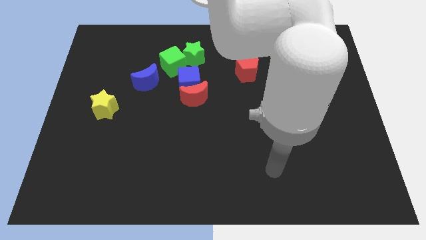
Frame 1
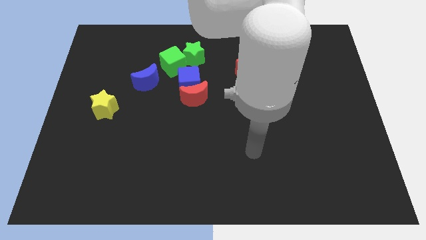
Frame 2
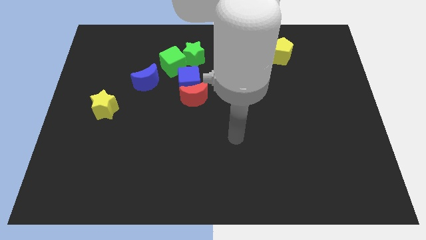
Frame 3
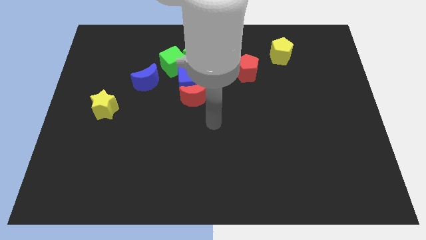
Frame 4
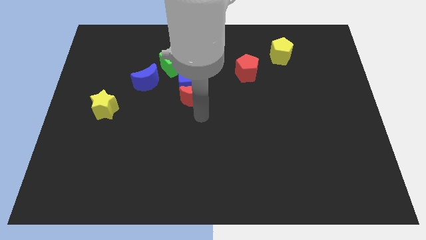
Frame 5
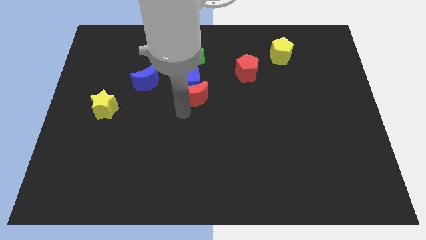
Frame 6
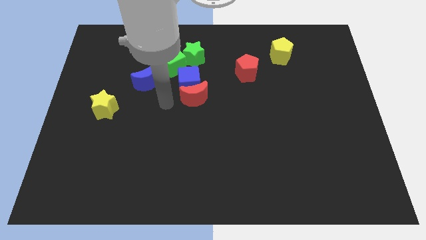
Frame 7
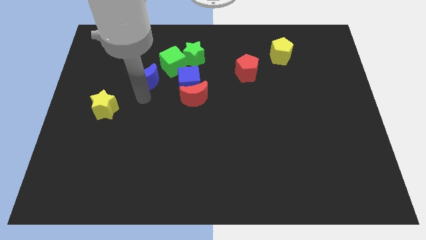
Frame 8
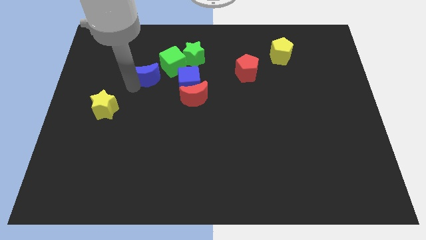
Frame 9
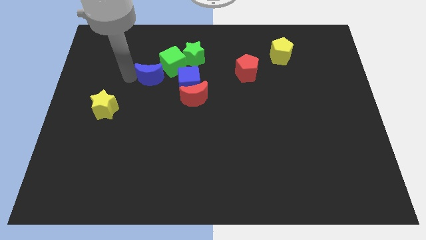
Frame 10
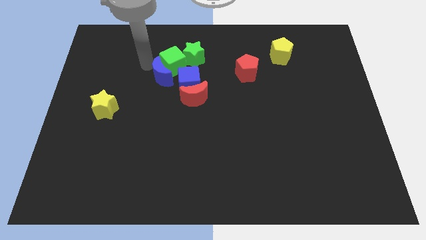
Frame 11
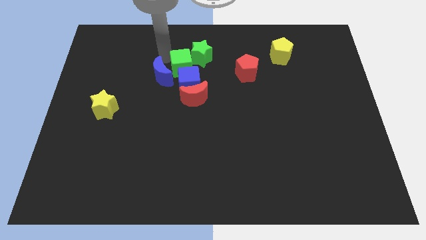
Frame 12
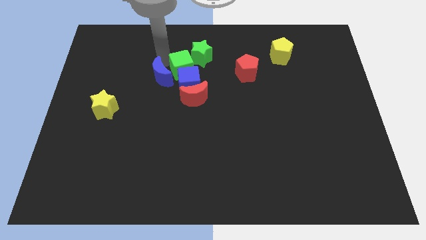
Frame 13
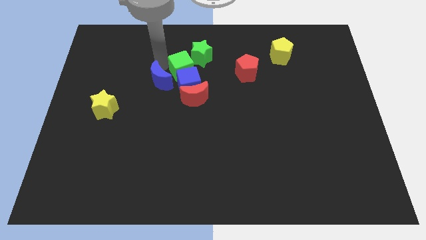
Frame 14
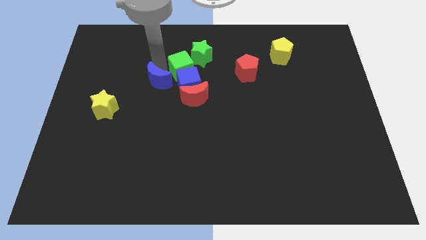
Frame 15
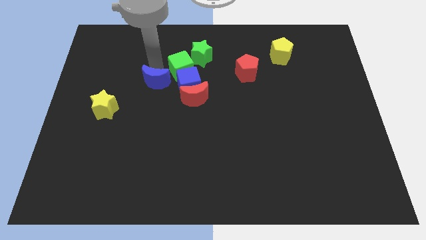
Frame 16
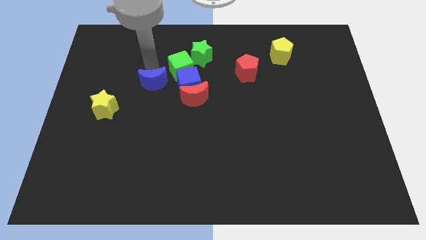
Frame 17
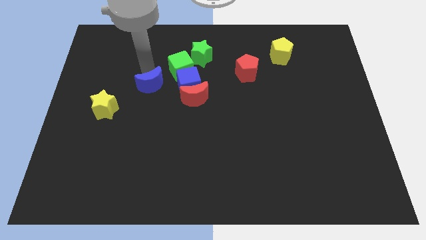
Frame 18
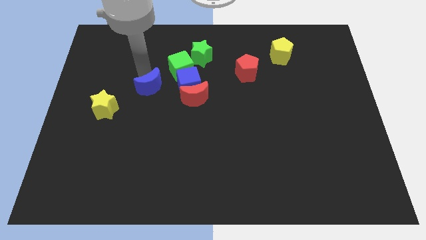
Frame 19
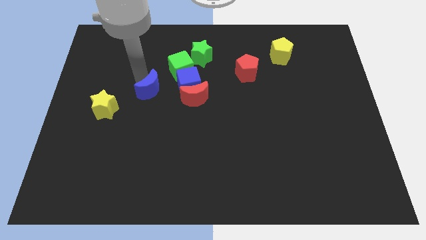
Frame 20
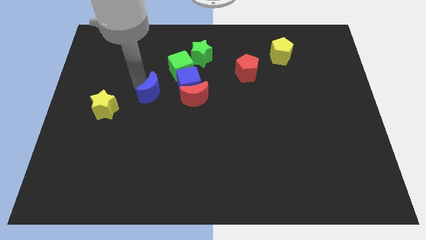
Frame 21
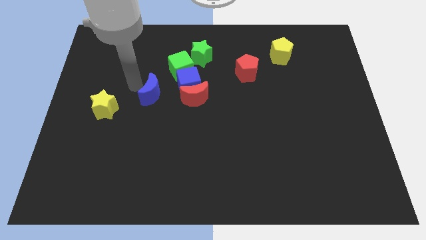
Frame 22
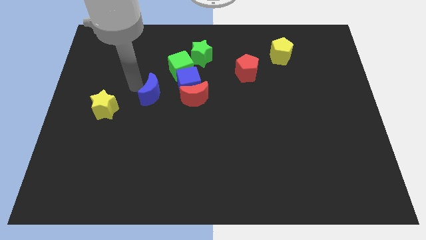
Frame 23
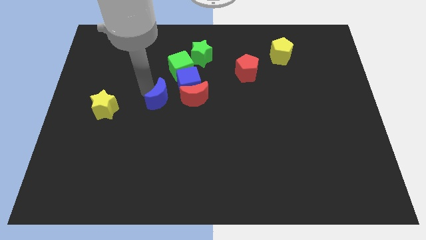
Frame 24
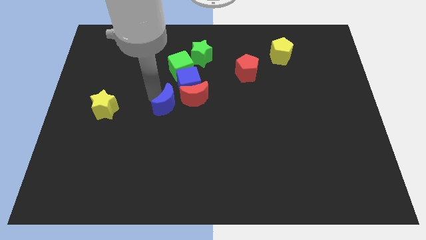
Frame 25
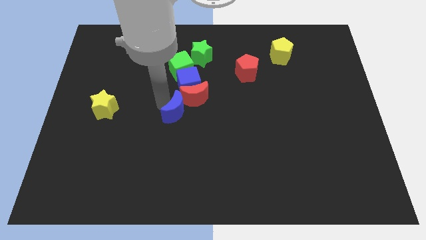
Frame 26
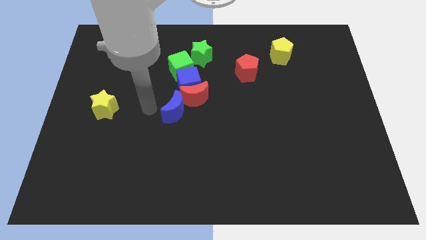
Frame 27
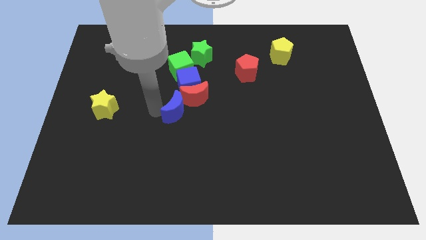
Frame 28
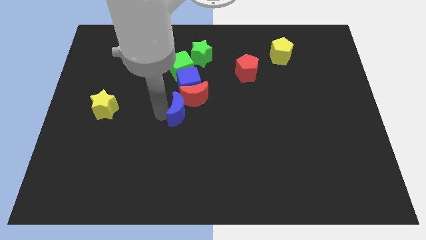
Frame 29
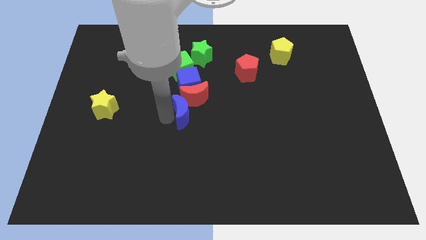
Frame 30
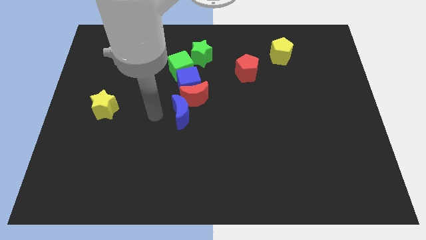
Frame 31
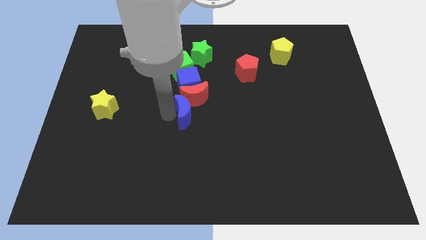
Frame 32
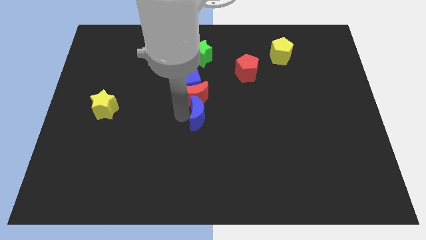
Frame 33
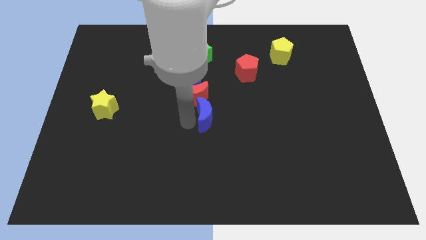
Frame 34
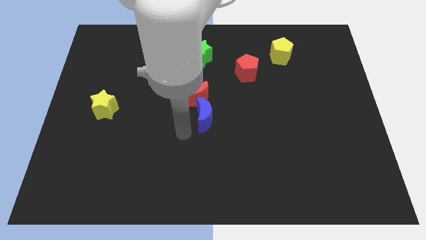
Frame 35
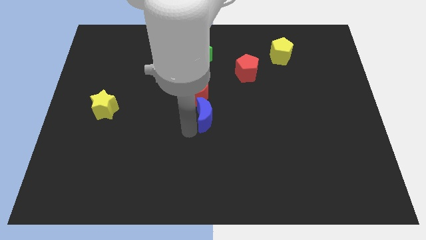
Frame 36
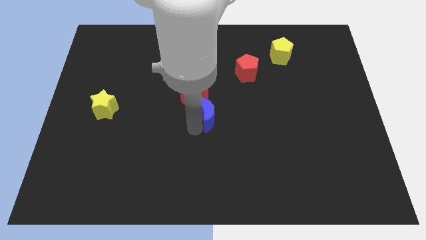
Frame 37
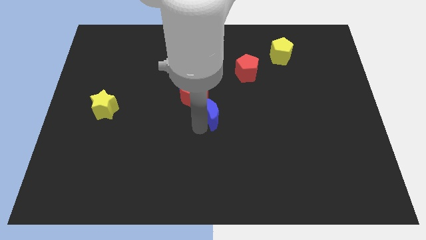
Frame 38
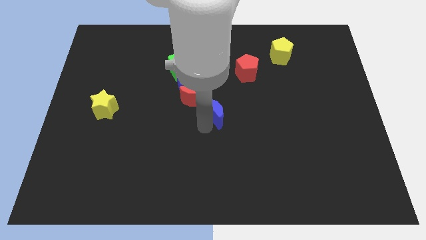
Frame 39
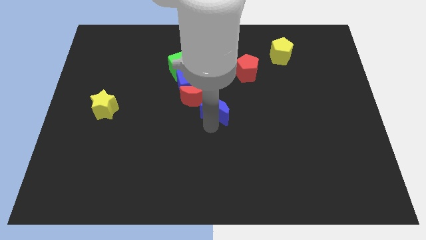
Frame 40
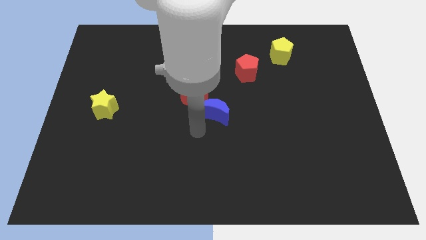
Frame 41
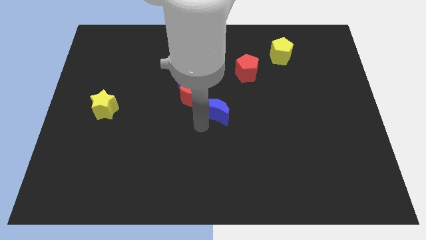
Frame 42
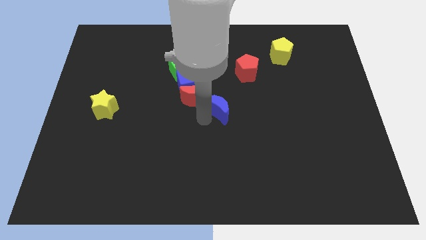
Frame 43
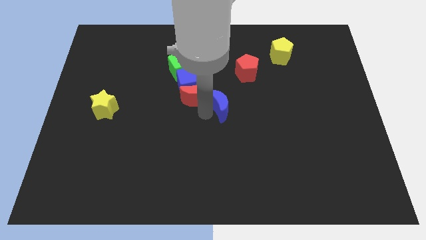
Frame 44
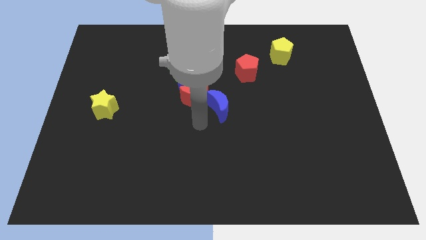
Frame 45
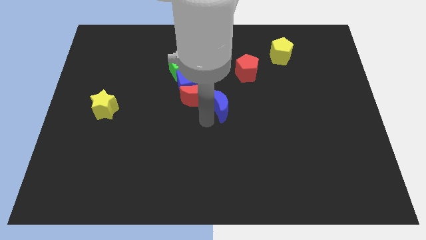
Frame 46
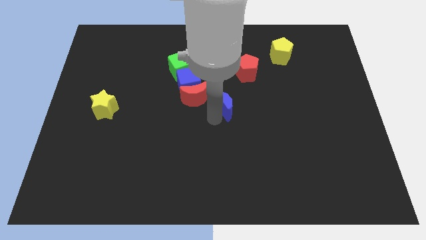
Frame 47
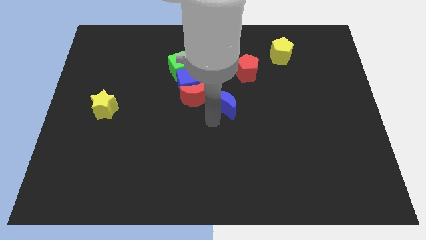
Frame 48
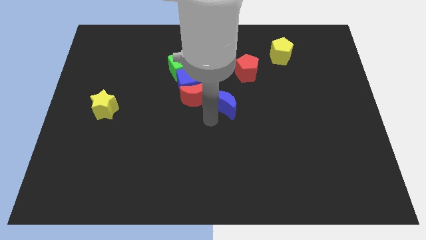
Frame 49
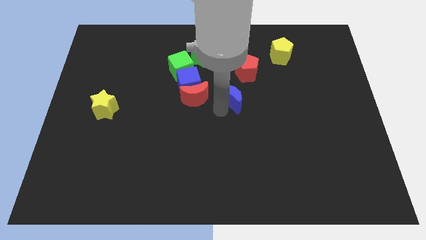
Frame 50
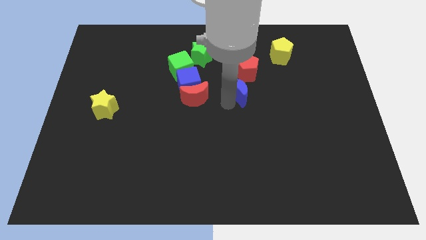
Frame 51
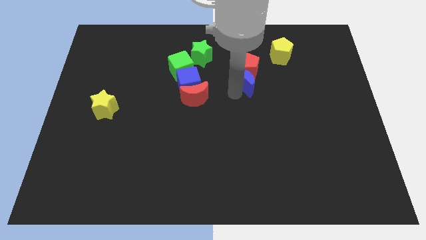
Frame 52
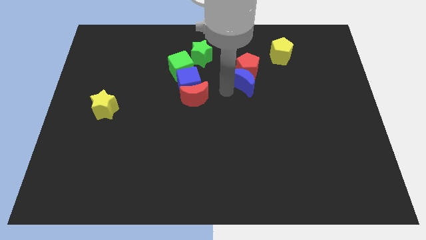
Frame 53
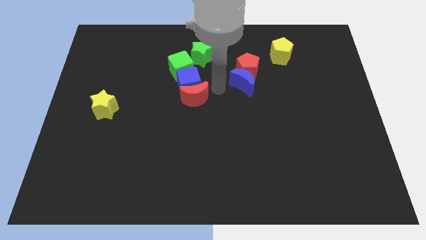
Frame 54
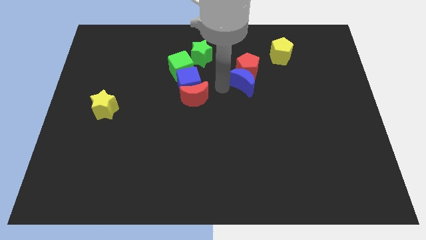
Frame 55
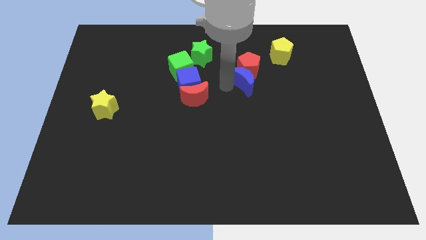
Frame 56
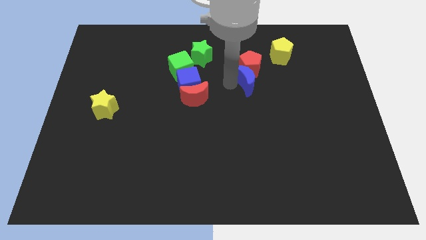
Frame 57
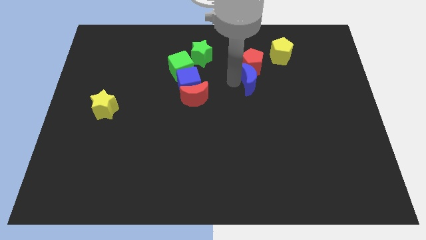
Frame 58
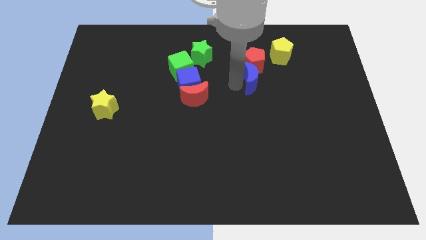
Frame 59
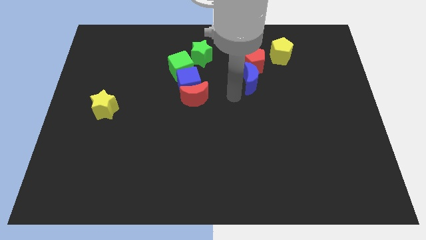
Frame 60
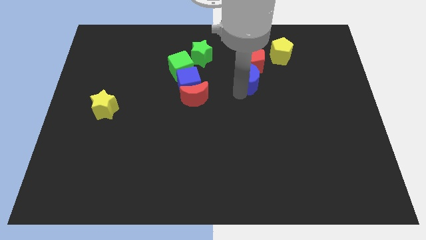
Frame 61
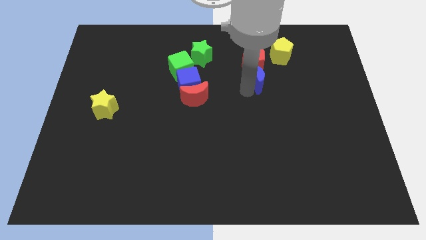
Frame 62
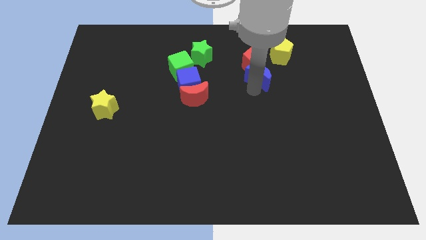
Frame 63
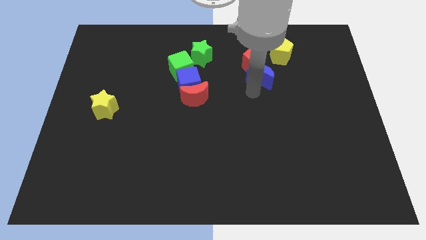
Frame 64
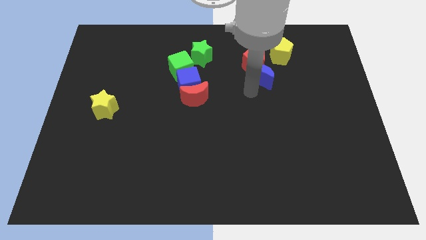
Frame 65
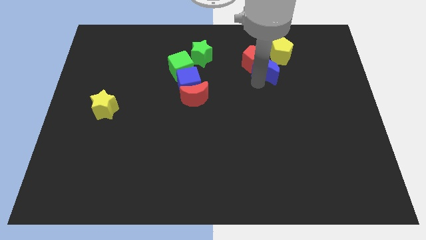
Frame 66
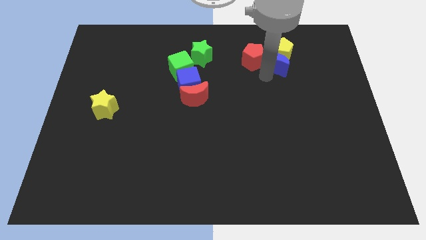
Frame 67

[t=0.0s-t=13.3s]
move the blue moon to the yellow pentagon
